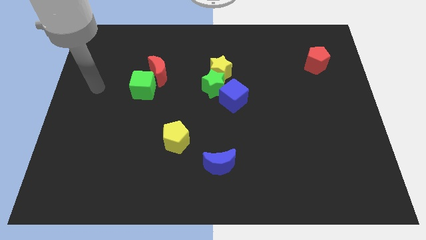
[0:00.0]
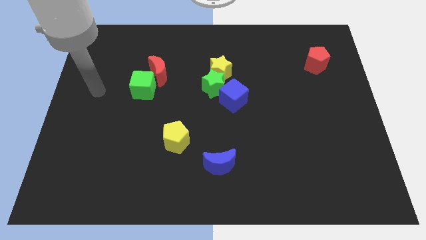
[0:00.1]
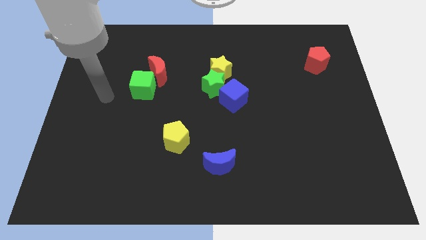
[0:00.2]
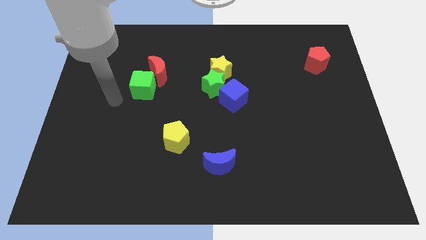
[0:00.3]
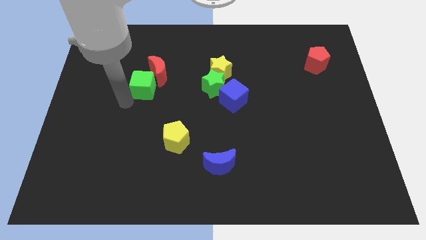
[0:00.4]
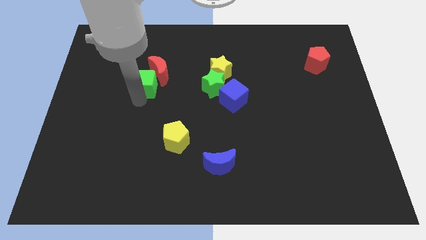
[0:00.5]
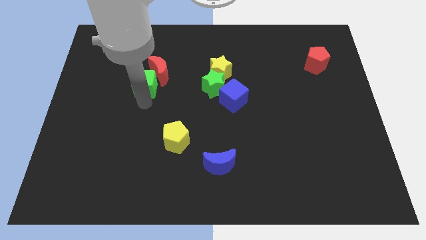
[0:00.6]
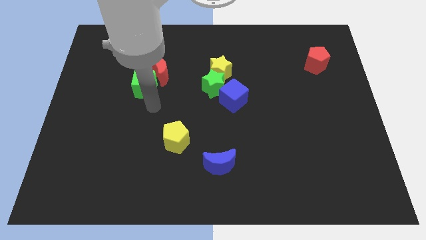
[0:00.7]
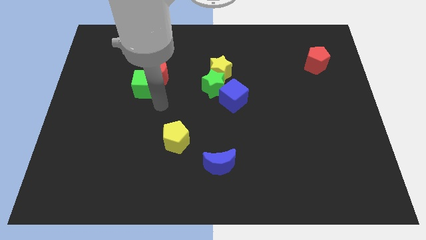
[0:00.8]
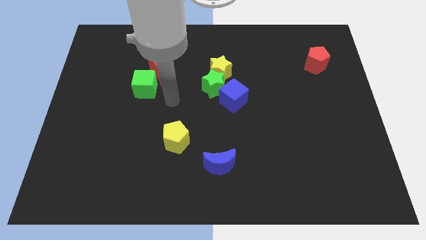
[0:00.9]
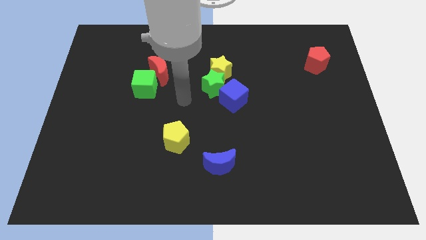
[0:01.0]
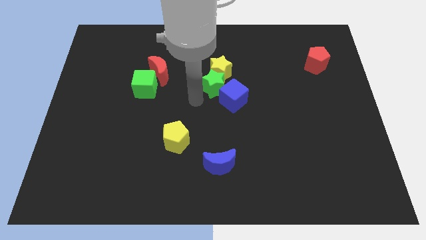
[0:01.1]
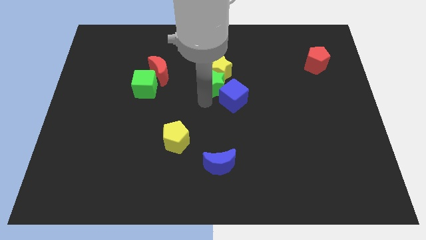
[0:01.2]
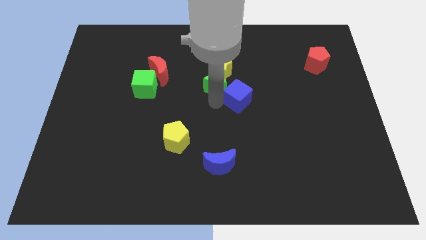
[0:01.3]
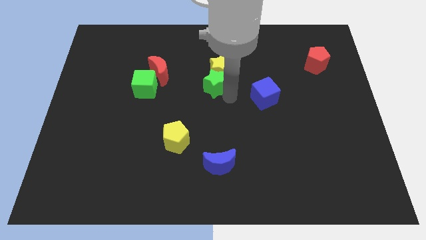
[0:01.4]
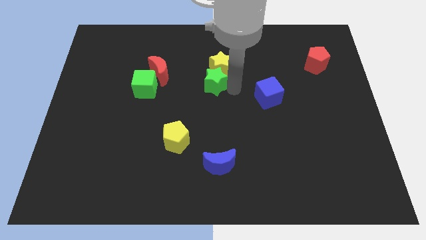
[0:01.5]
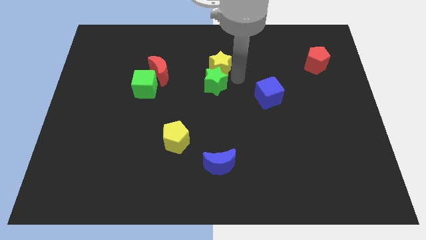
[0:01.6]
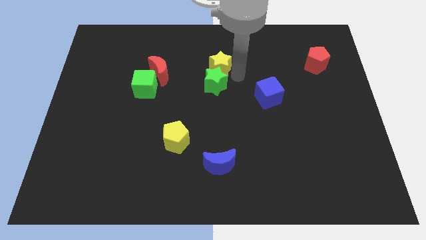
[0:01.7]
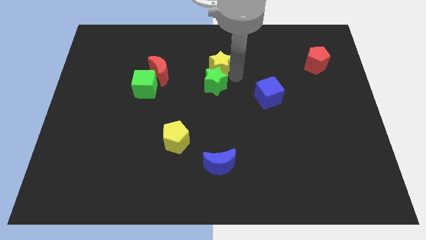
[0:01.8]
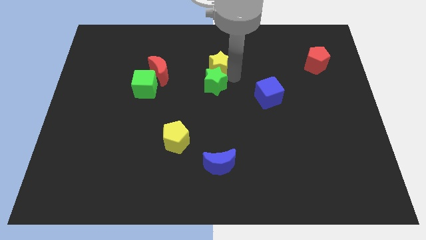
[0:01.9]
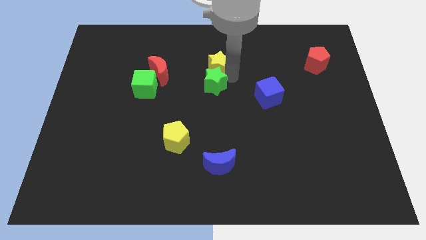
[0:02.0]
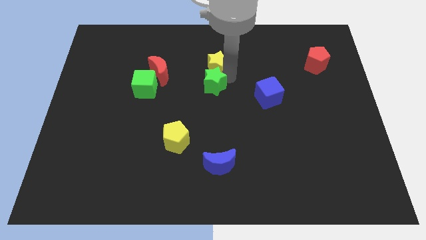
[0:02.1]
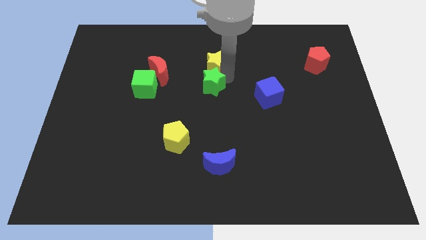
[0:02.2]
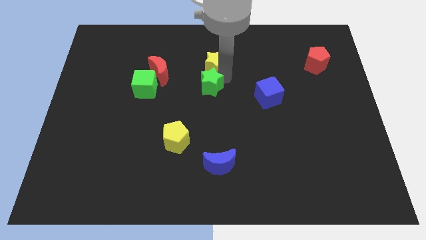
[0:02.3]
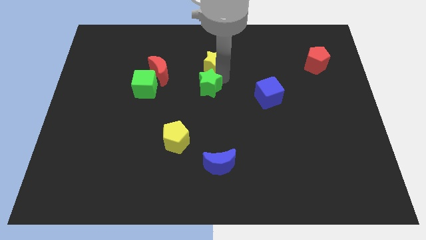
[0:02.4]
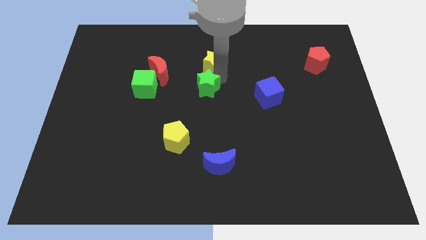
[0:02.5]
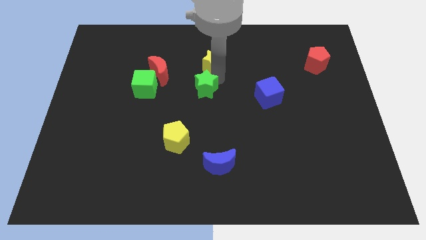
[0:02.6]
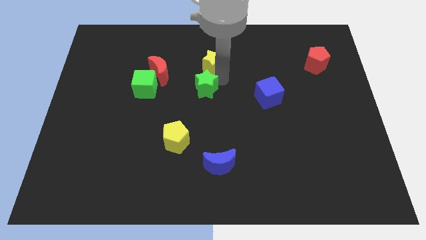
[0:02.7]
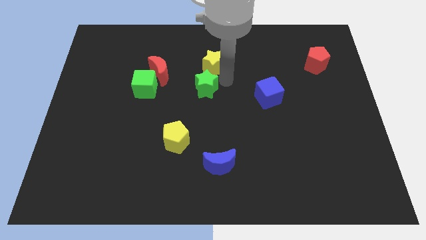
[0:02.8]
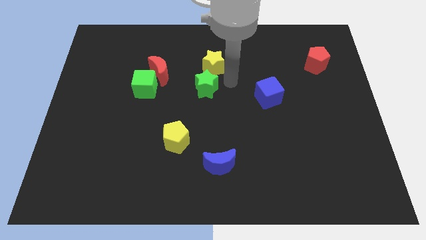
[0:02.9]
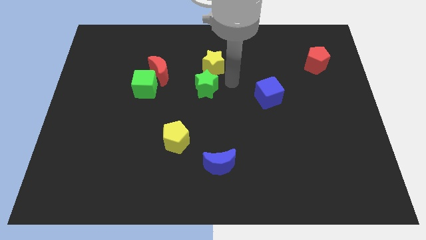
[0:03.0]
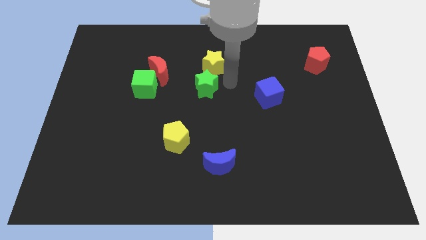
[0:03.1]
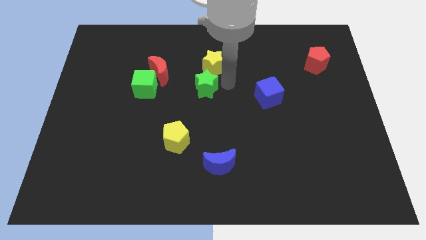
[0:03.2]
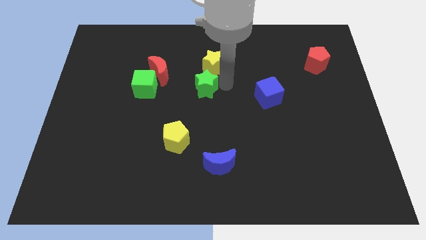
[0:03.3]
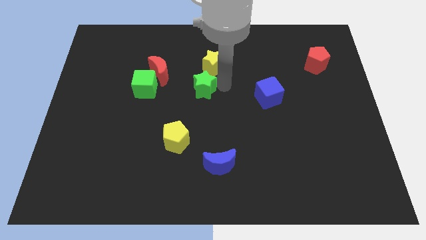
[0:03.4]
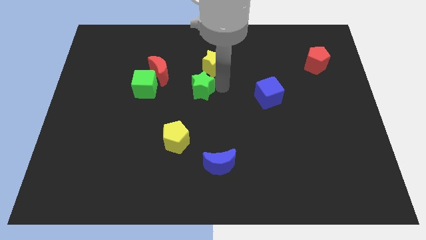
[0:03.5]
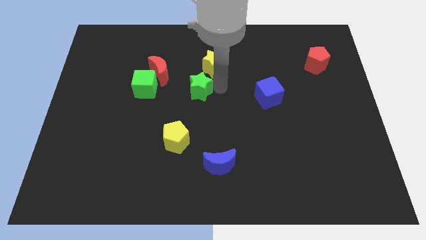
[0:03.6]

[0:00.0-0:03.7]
pull the green star apart from the yellow star and blue cube

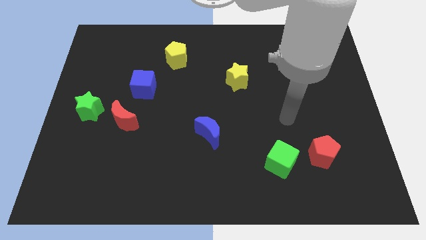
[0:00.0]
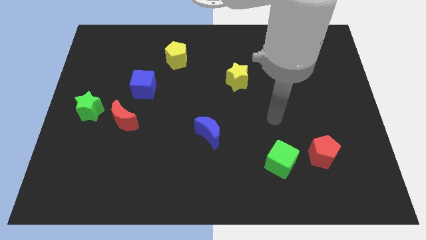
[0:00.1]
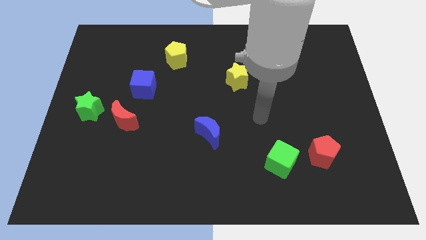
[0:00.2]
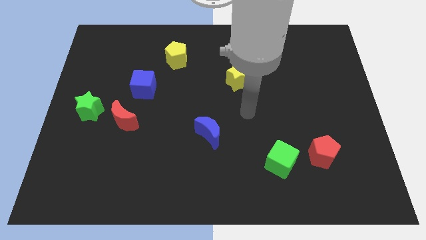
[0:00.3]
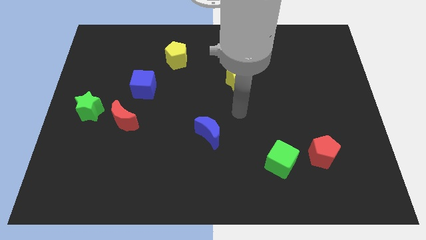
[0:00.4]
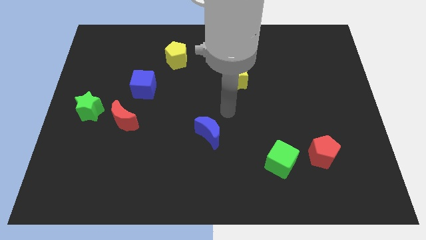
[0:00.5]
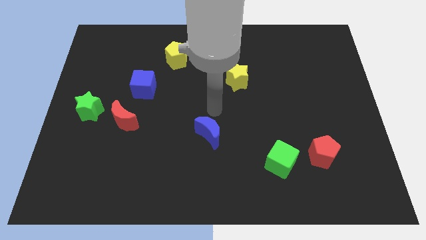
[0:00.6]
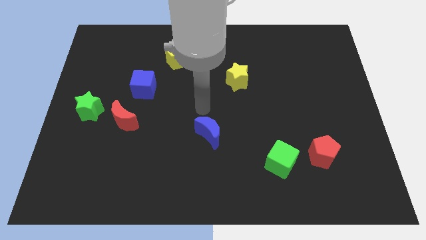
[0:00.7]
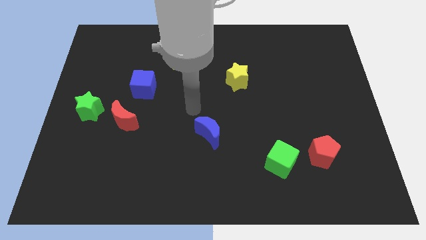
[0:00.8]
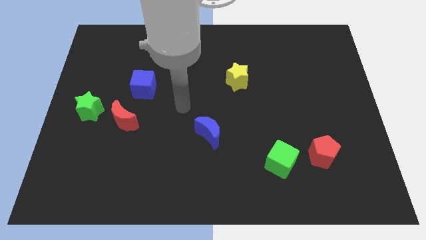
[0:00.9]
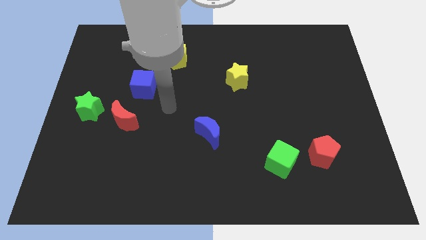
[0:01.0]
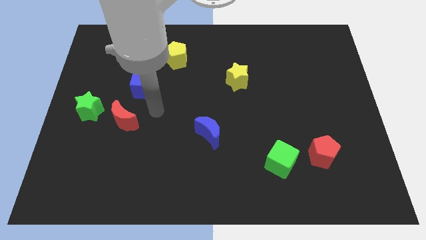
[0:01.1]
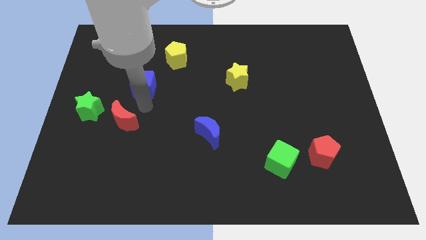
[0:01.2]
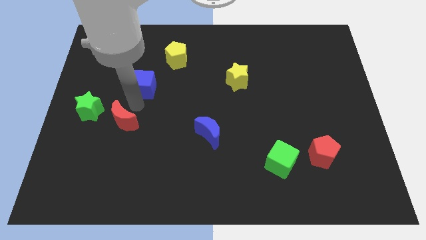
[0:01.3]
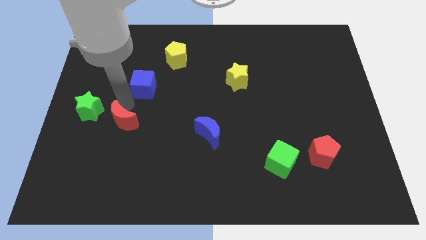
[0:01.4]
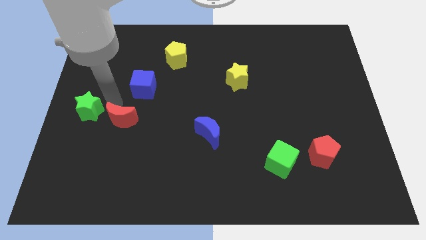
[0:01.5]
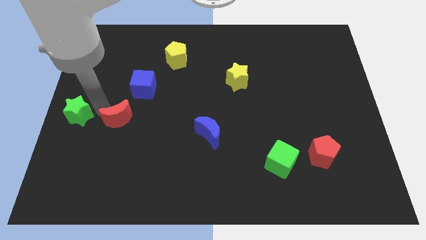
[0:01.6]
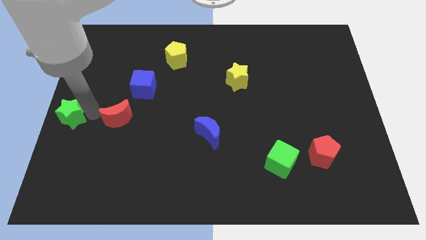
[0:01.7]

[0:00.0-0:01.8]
pull the red moon apart from the green star

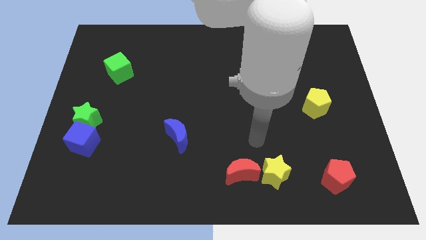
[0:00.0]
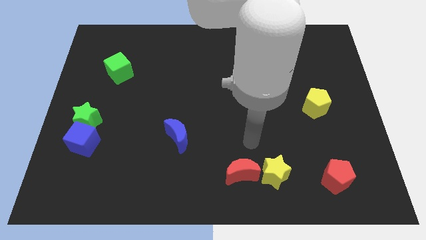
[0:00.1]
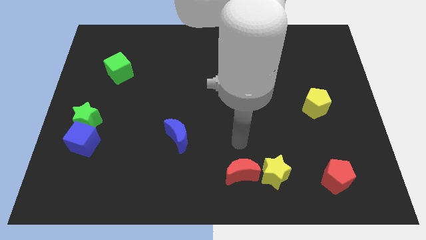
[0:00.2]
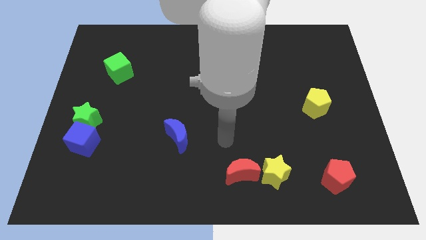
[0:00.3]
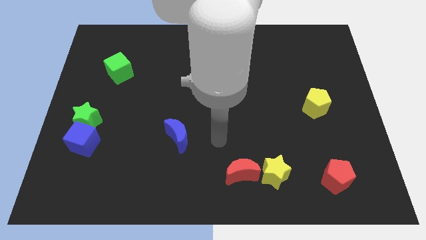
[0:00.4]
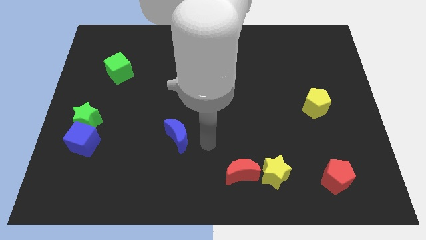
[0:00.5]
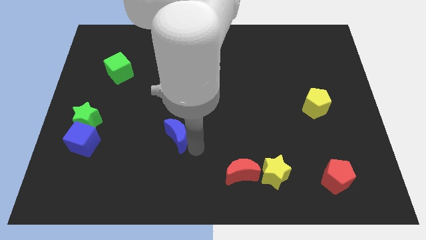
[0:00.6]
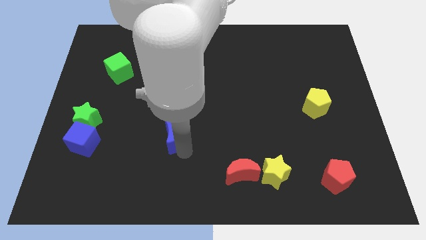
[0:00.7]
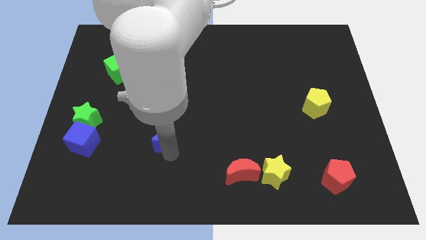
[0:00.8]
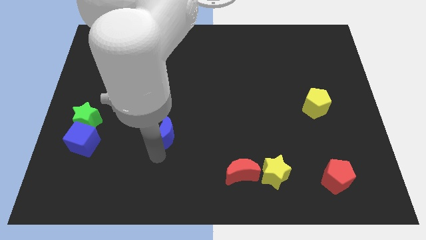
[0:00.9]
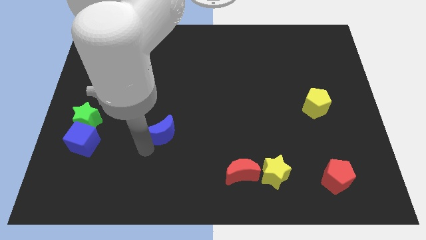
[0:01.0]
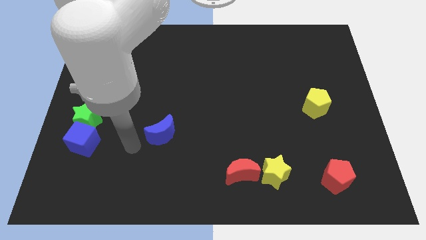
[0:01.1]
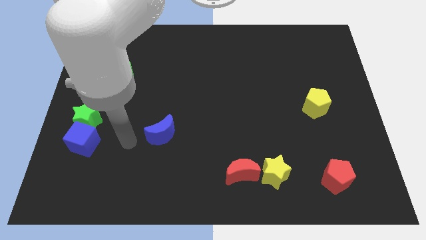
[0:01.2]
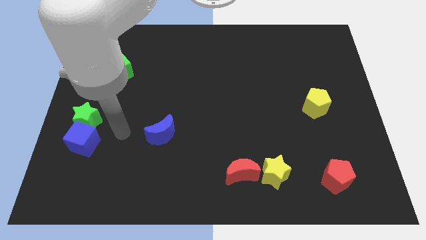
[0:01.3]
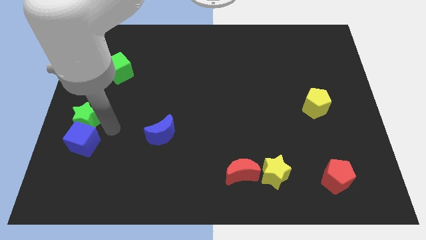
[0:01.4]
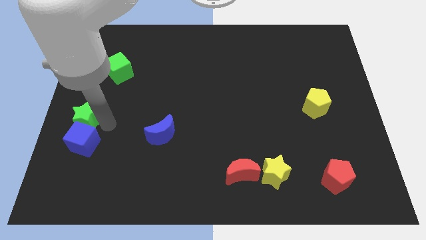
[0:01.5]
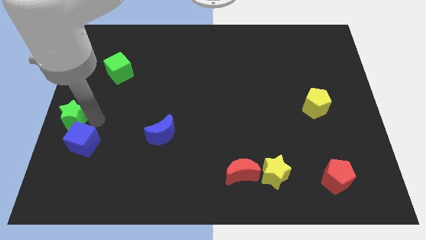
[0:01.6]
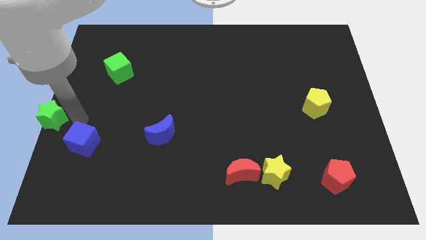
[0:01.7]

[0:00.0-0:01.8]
move the blue cube away from the green star

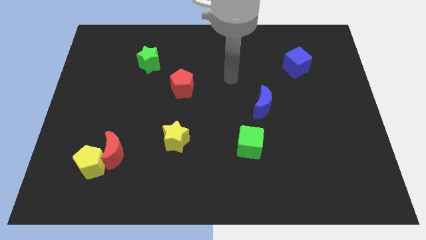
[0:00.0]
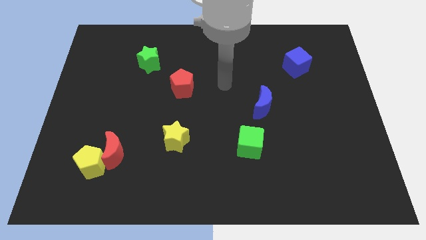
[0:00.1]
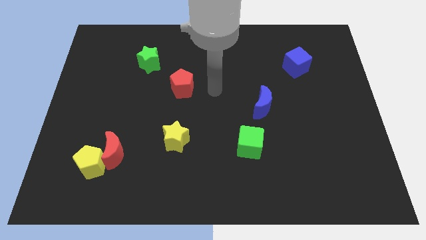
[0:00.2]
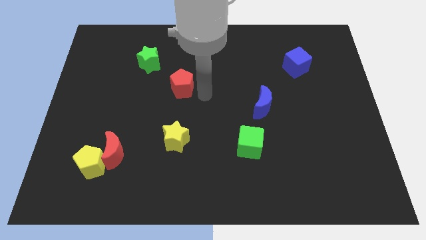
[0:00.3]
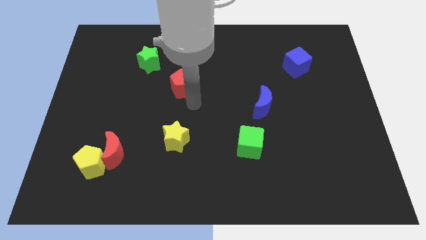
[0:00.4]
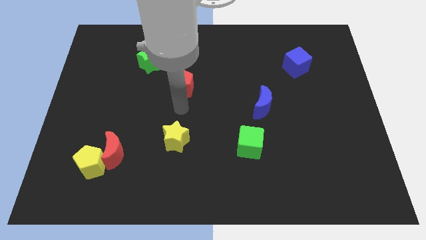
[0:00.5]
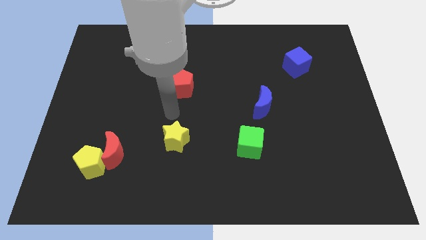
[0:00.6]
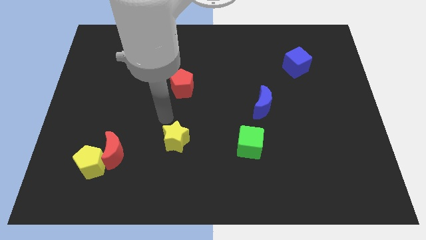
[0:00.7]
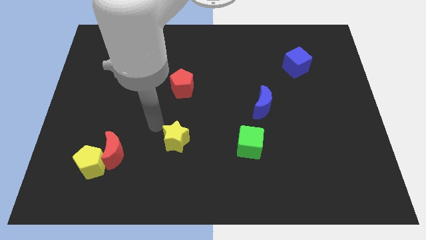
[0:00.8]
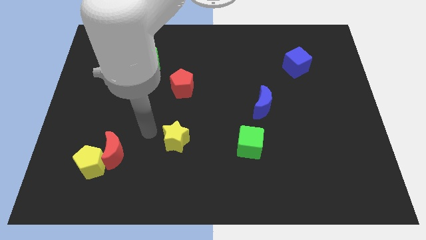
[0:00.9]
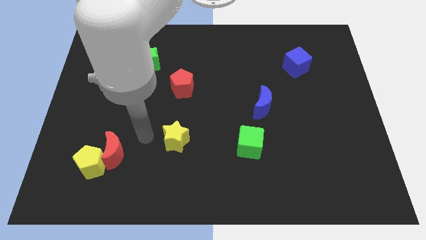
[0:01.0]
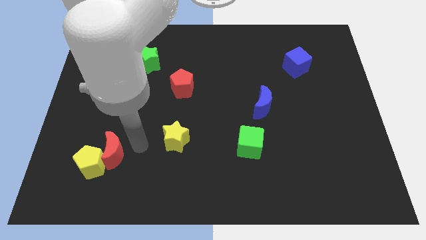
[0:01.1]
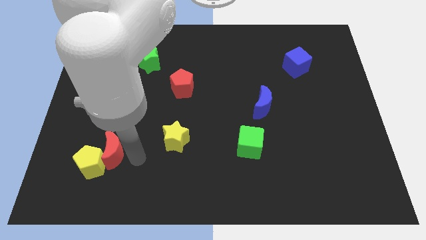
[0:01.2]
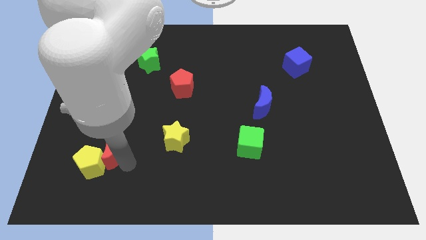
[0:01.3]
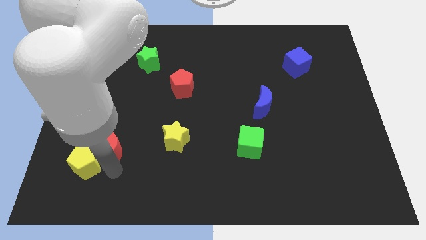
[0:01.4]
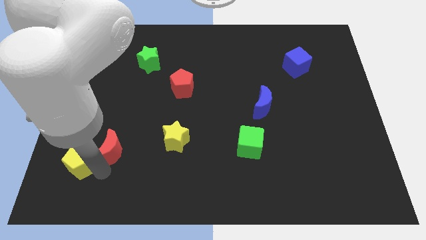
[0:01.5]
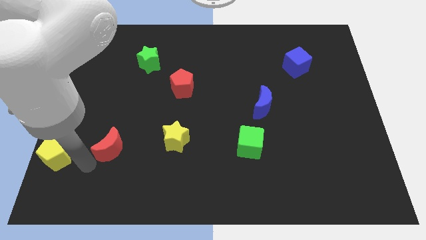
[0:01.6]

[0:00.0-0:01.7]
pull the red moon apart from the yellow pentagon

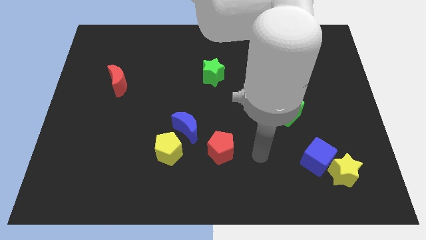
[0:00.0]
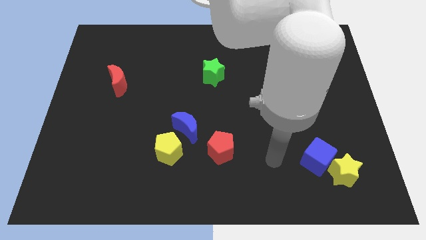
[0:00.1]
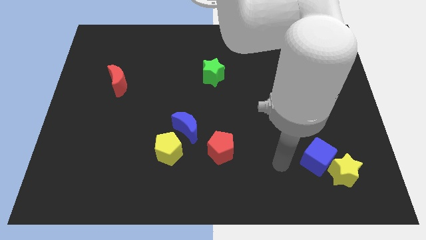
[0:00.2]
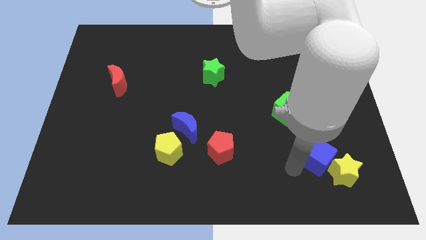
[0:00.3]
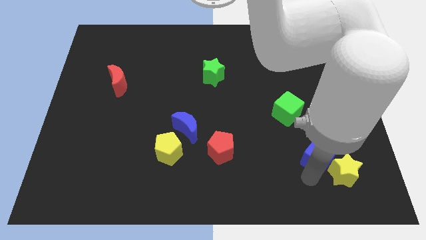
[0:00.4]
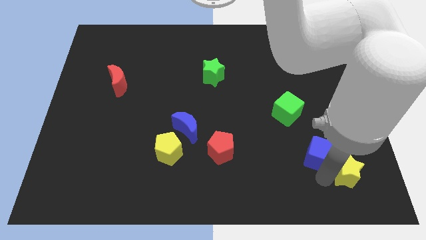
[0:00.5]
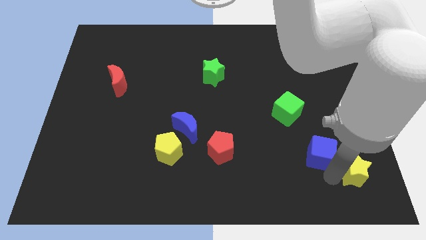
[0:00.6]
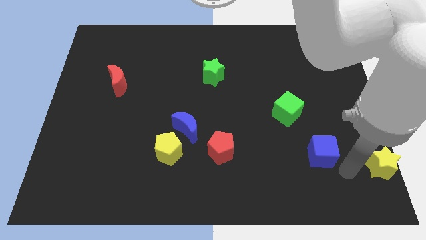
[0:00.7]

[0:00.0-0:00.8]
separate the blue cube from the yellow star
